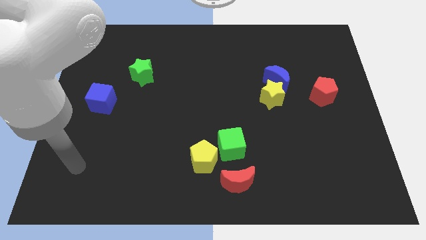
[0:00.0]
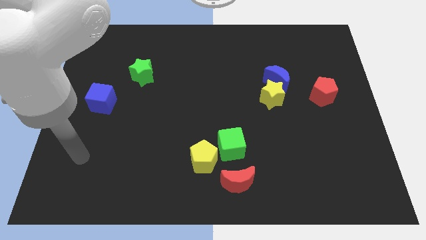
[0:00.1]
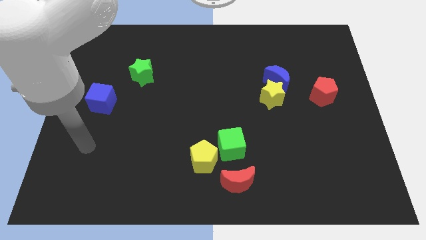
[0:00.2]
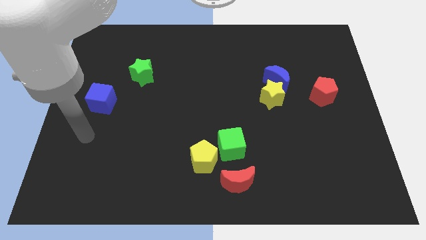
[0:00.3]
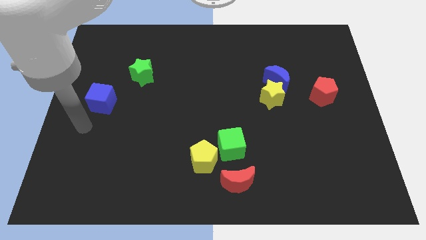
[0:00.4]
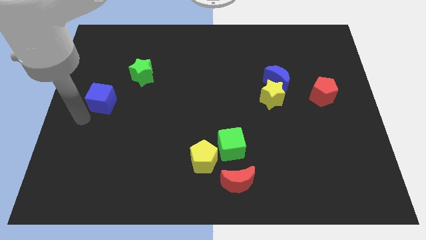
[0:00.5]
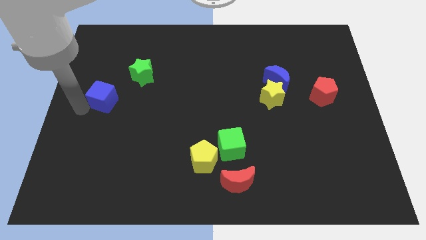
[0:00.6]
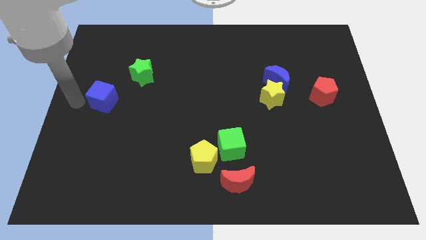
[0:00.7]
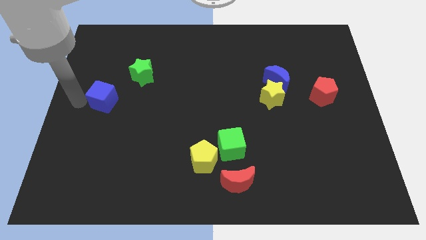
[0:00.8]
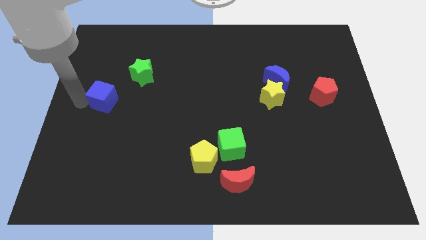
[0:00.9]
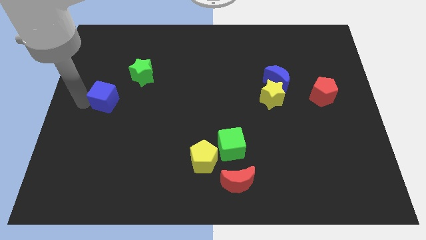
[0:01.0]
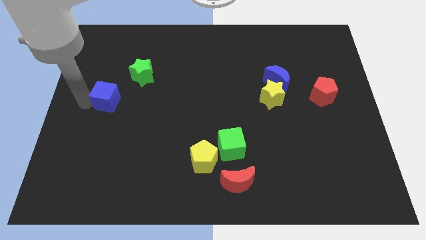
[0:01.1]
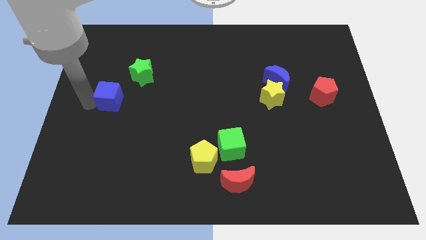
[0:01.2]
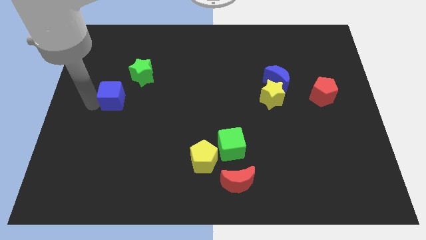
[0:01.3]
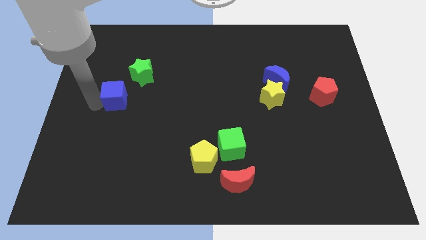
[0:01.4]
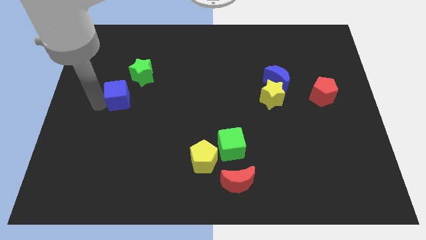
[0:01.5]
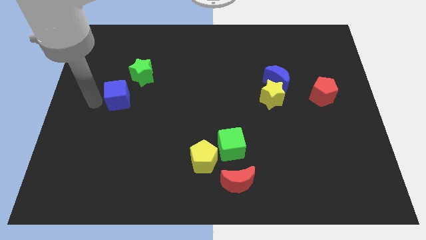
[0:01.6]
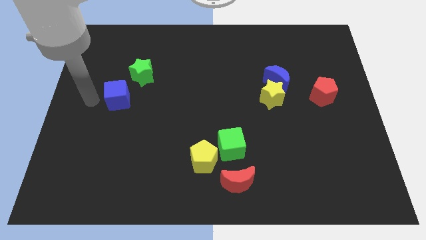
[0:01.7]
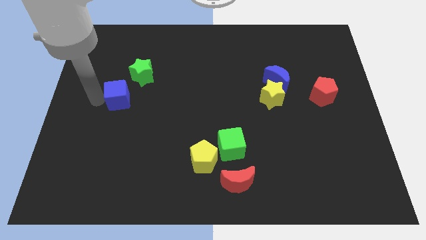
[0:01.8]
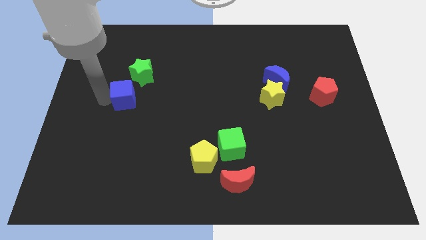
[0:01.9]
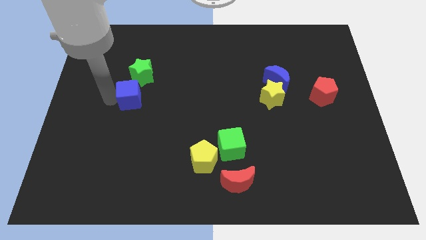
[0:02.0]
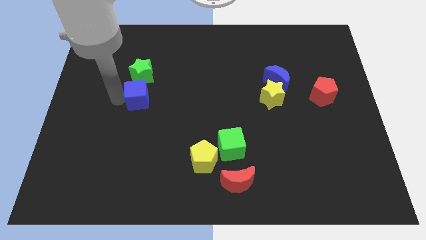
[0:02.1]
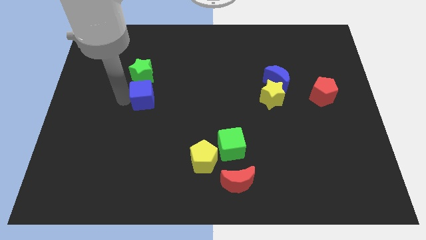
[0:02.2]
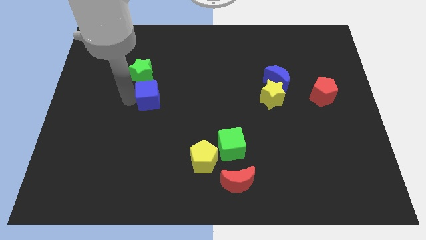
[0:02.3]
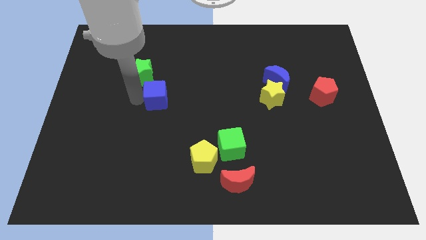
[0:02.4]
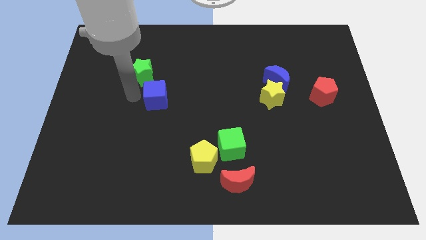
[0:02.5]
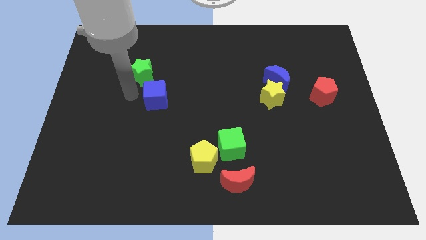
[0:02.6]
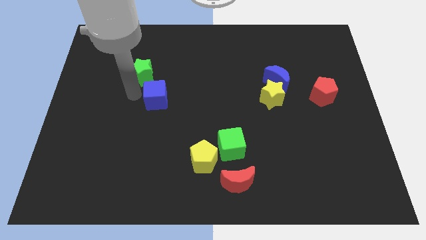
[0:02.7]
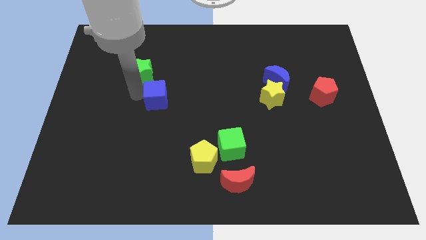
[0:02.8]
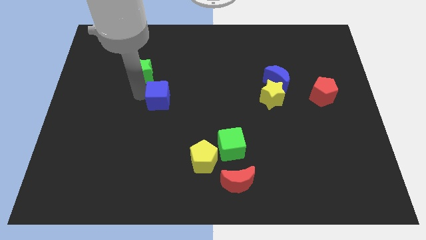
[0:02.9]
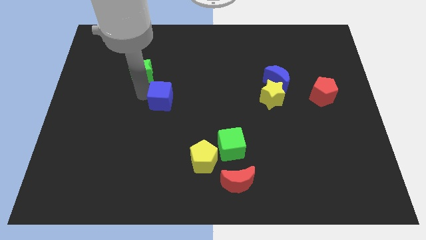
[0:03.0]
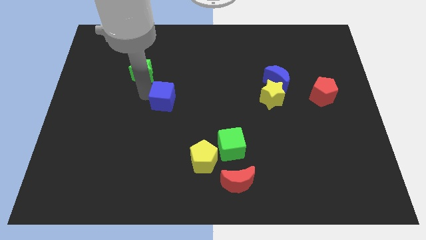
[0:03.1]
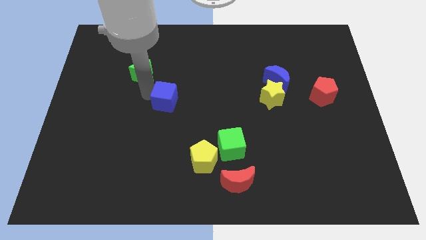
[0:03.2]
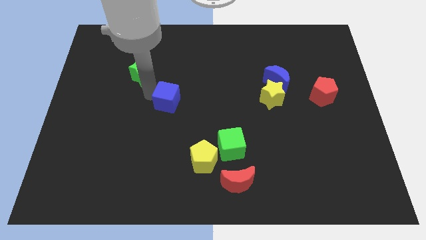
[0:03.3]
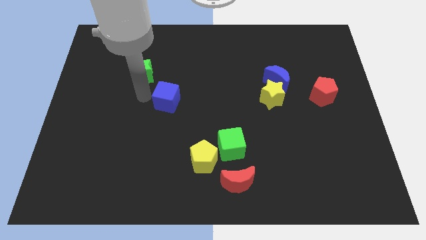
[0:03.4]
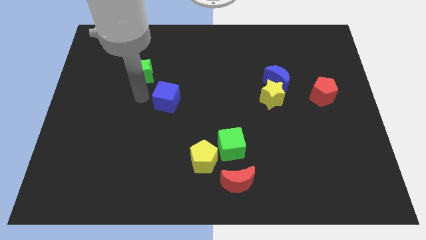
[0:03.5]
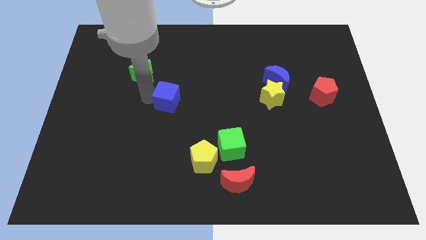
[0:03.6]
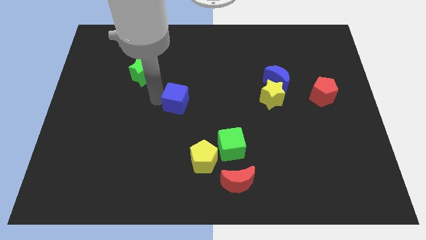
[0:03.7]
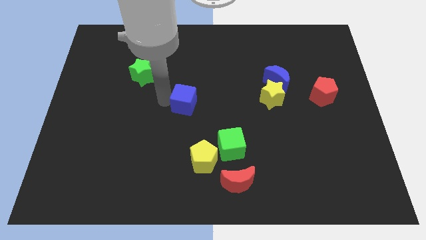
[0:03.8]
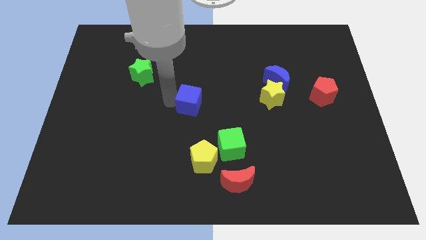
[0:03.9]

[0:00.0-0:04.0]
push the blue cube right

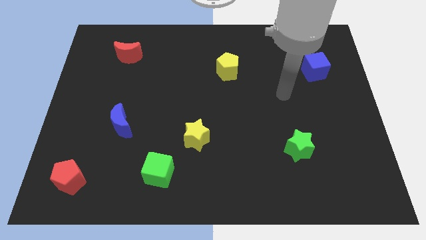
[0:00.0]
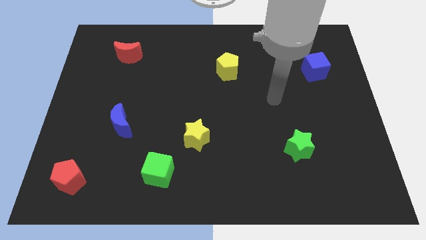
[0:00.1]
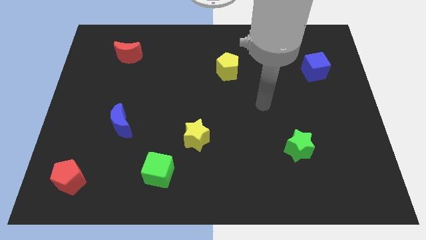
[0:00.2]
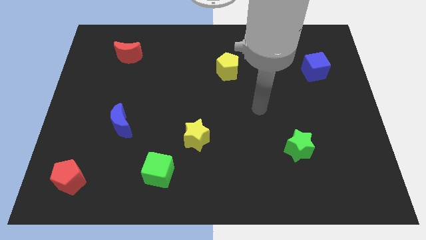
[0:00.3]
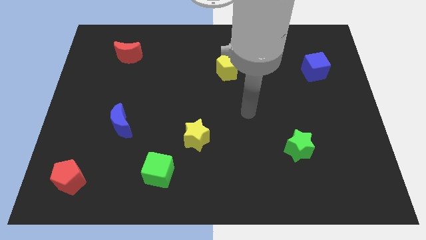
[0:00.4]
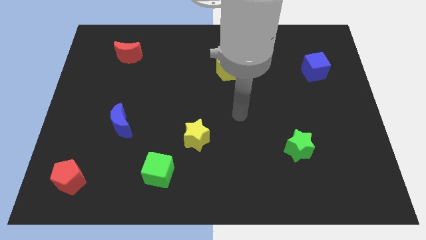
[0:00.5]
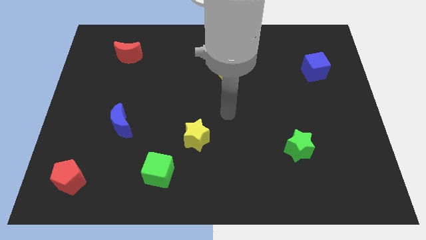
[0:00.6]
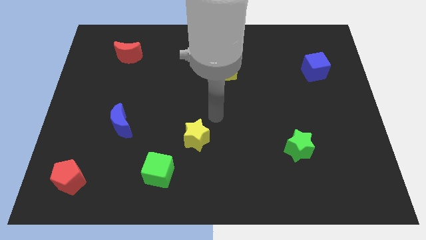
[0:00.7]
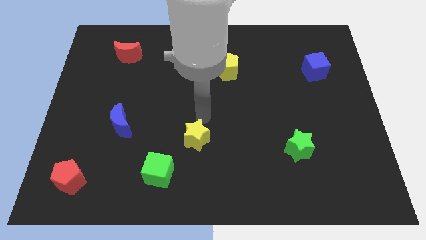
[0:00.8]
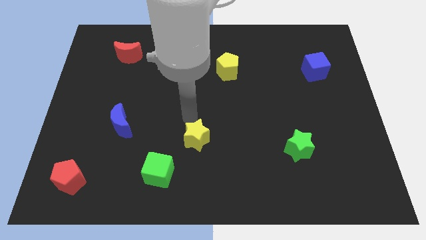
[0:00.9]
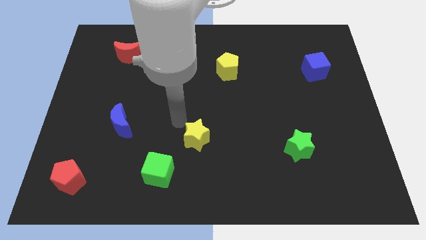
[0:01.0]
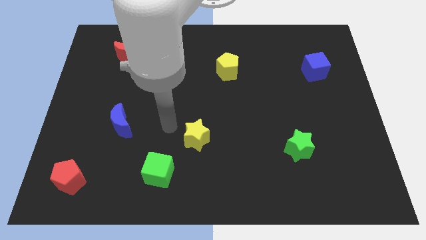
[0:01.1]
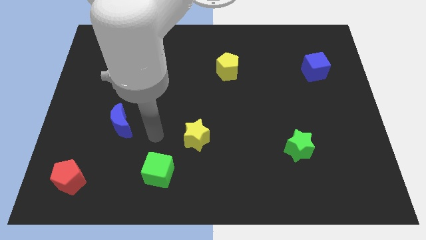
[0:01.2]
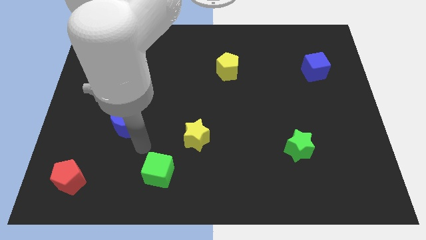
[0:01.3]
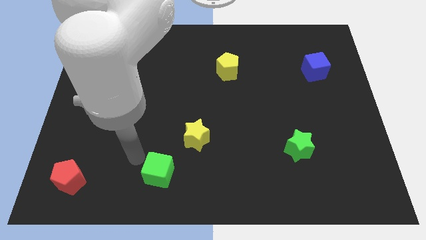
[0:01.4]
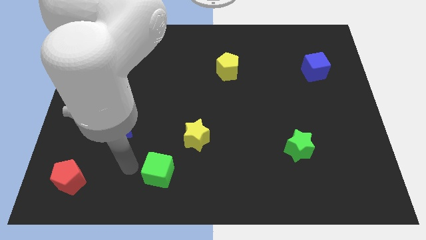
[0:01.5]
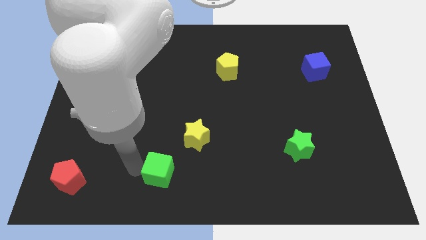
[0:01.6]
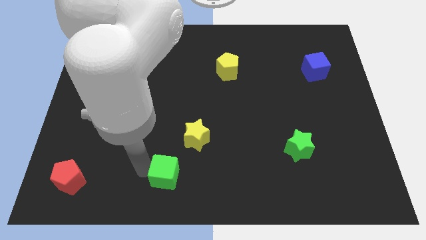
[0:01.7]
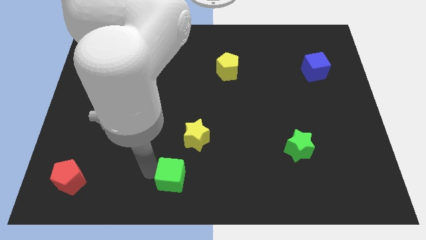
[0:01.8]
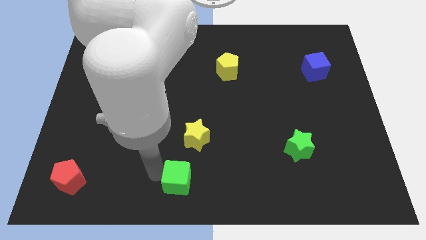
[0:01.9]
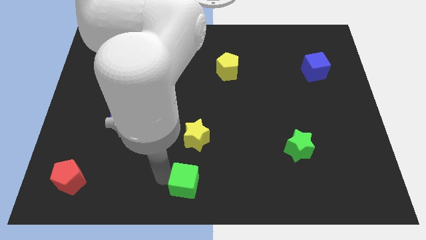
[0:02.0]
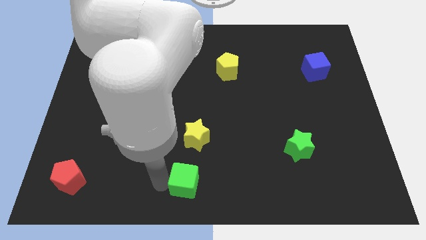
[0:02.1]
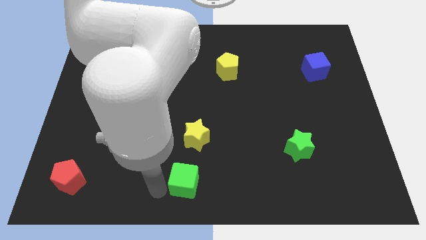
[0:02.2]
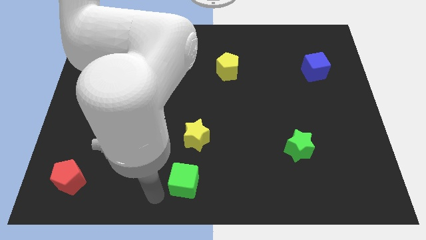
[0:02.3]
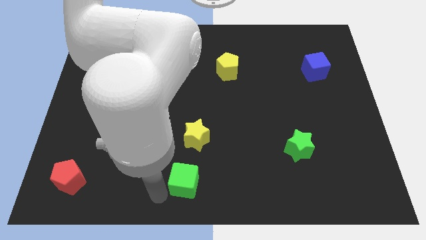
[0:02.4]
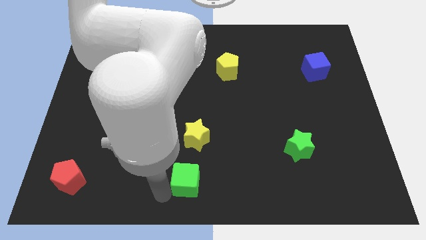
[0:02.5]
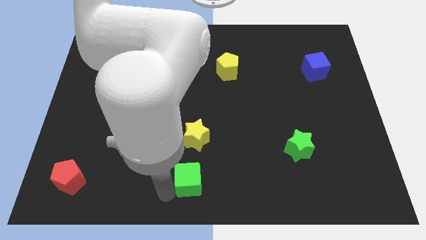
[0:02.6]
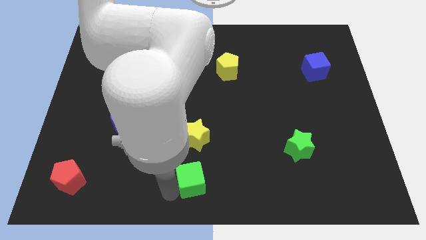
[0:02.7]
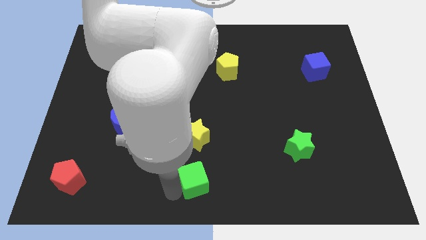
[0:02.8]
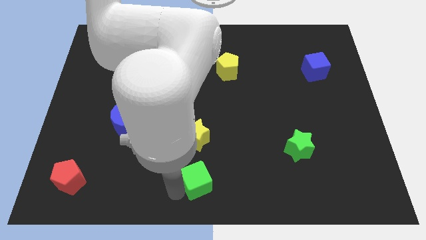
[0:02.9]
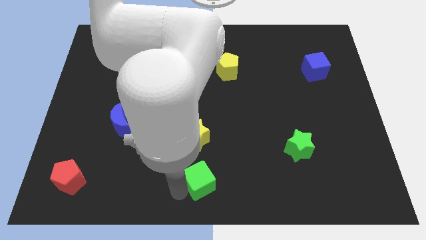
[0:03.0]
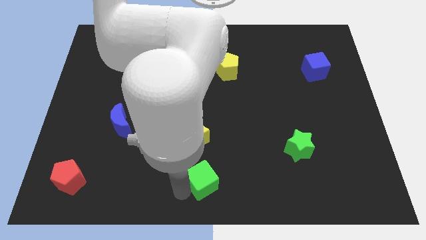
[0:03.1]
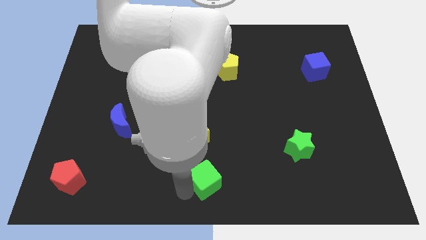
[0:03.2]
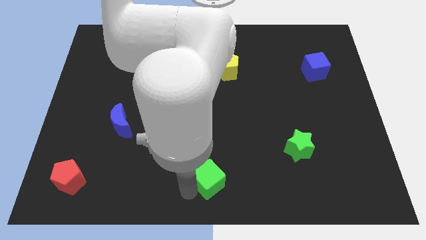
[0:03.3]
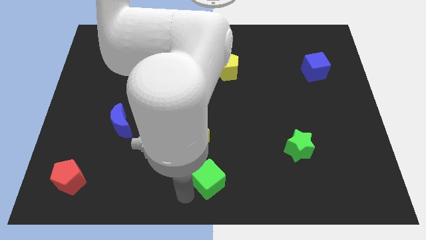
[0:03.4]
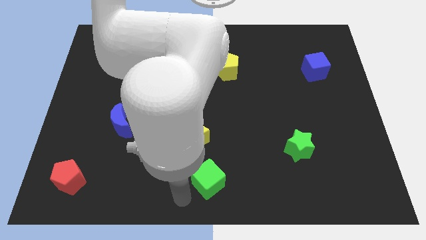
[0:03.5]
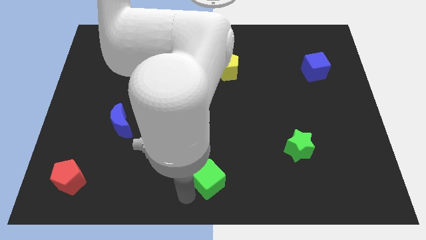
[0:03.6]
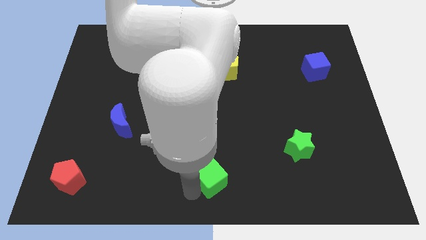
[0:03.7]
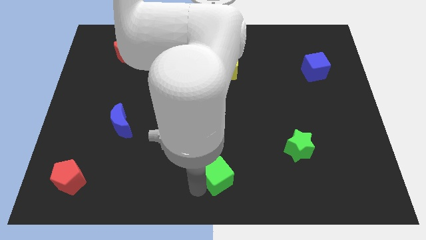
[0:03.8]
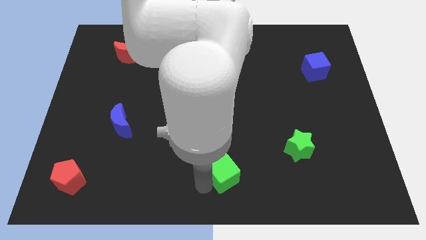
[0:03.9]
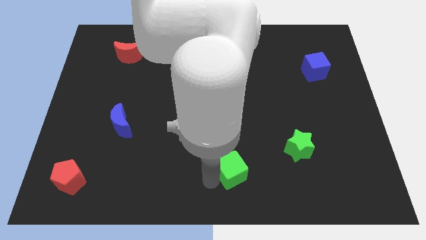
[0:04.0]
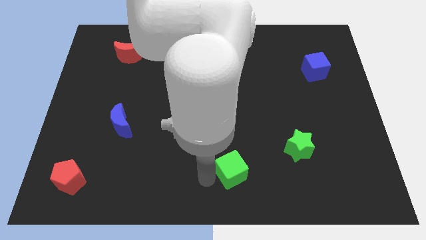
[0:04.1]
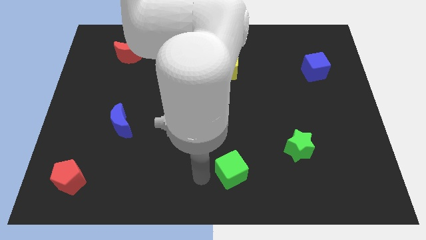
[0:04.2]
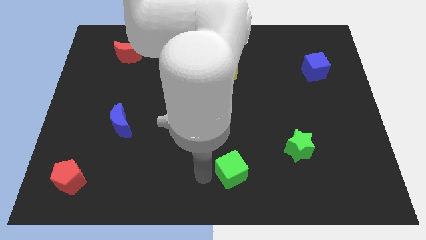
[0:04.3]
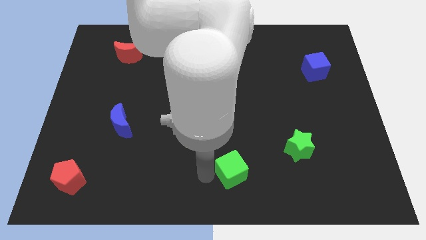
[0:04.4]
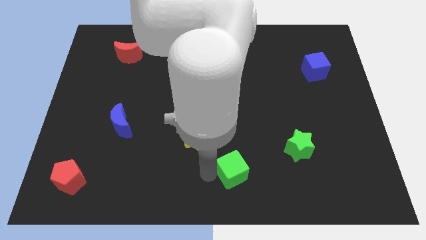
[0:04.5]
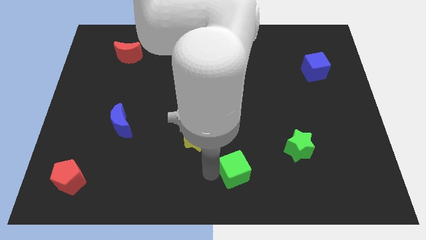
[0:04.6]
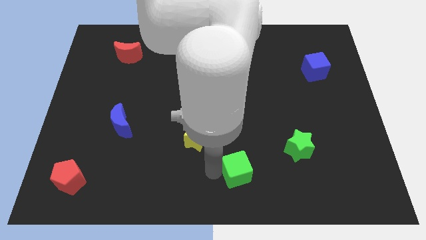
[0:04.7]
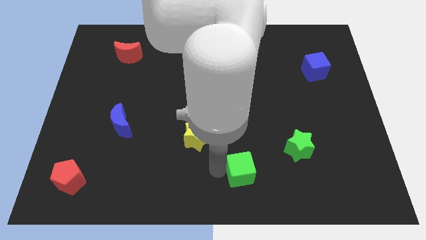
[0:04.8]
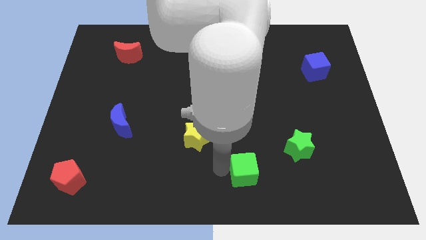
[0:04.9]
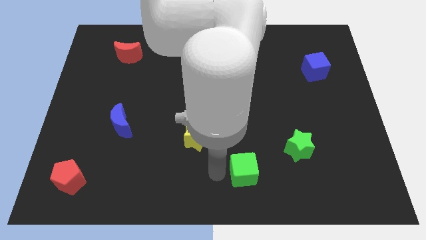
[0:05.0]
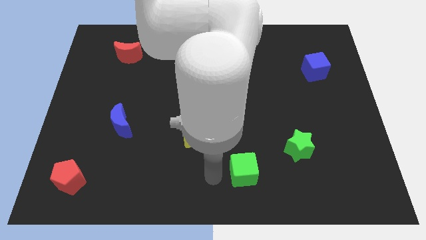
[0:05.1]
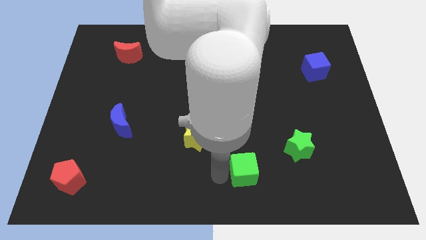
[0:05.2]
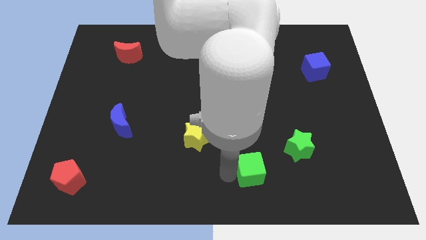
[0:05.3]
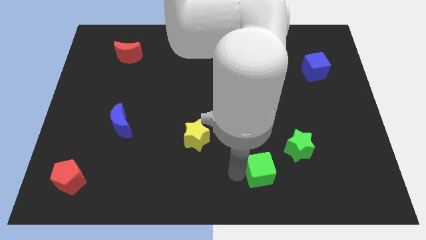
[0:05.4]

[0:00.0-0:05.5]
slide the green cube to the right
